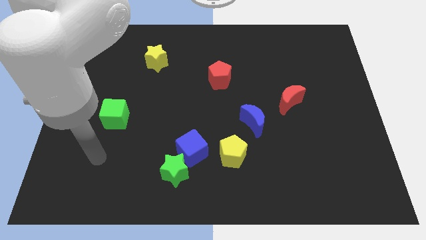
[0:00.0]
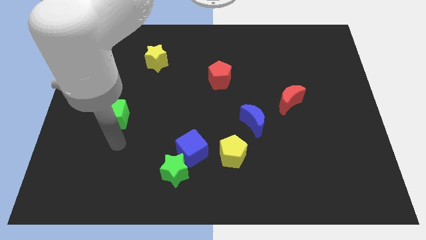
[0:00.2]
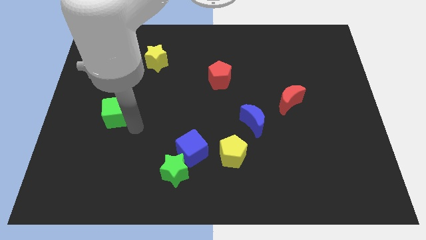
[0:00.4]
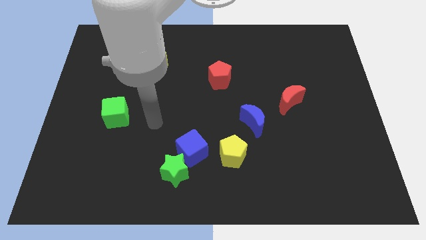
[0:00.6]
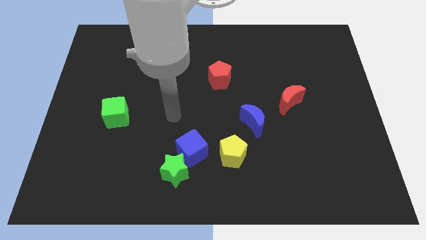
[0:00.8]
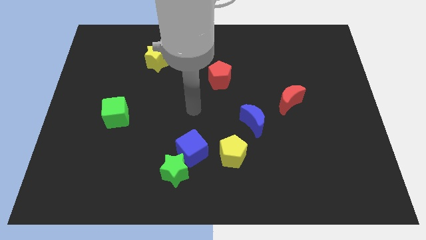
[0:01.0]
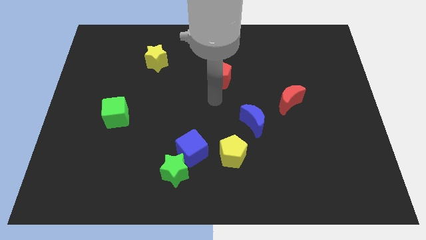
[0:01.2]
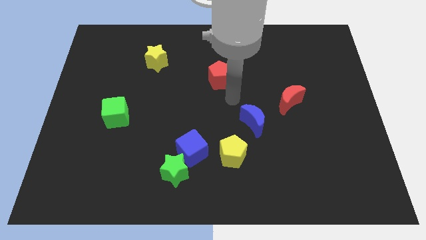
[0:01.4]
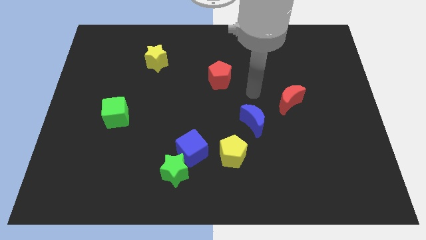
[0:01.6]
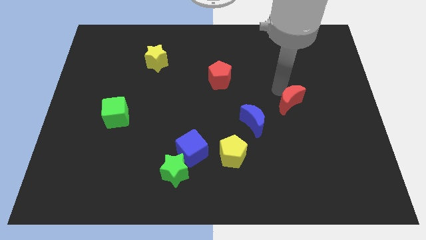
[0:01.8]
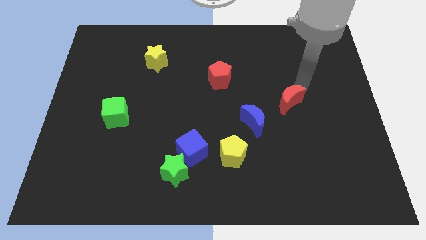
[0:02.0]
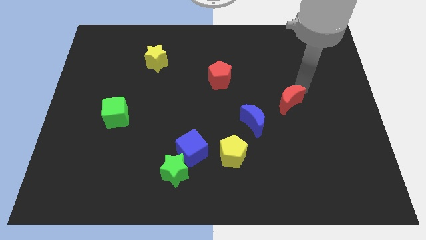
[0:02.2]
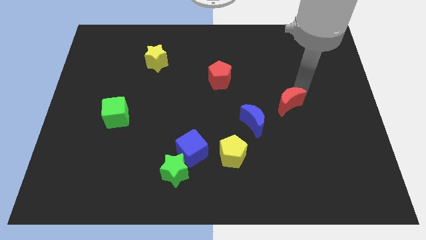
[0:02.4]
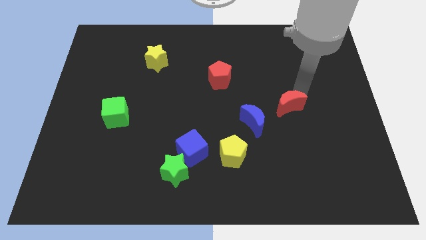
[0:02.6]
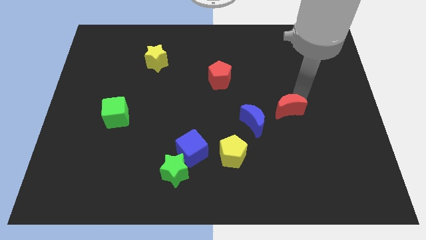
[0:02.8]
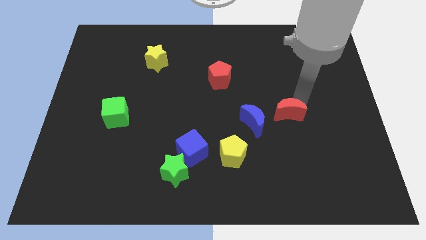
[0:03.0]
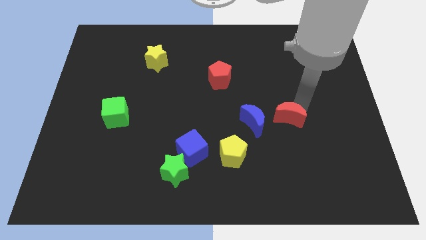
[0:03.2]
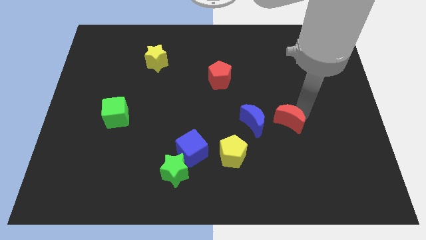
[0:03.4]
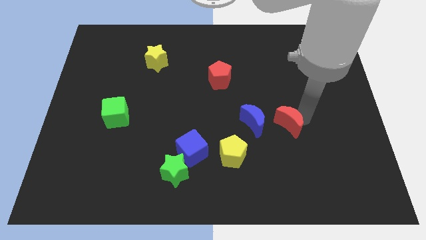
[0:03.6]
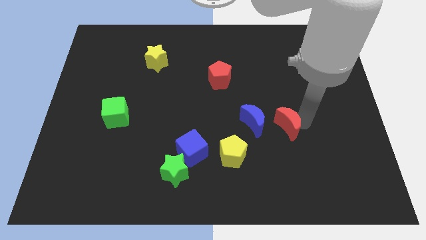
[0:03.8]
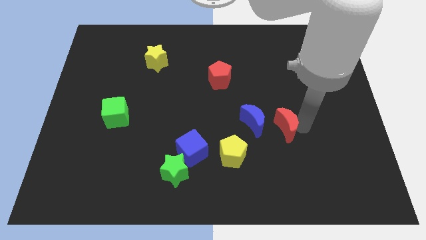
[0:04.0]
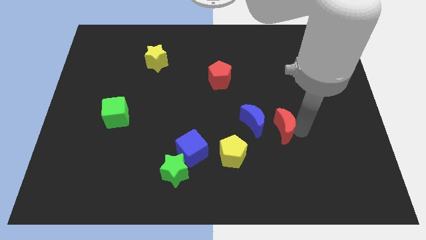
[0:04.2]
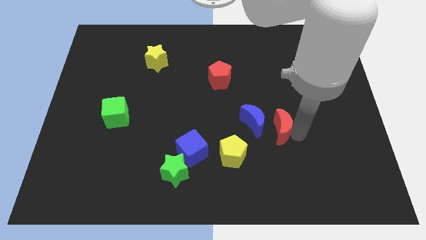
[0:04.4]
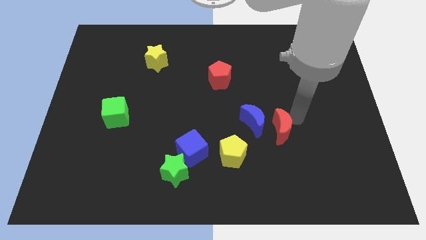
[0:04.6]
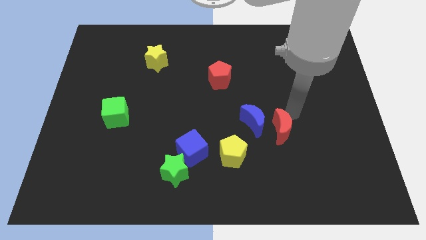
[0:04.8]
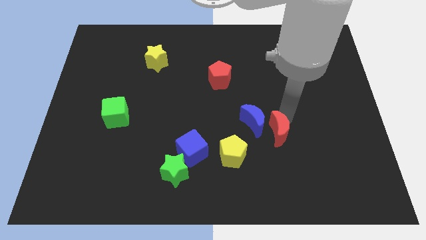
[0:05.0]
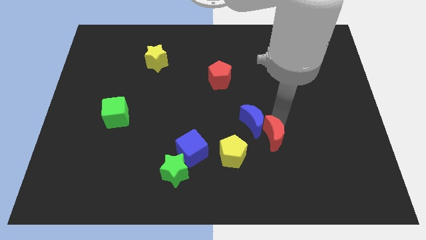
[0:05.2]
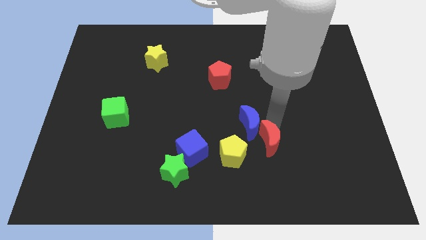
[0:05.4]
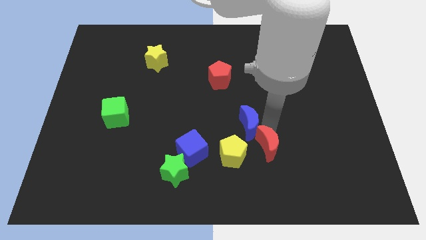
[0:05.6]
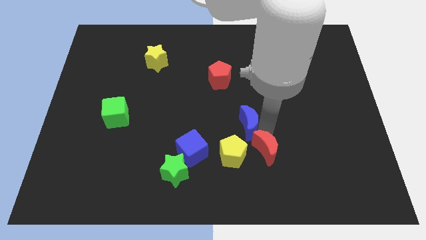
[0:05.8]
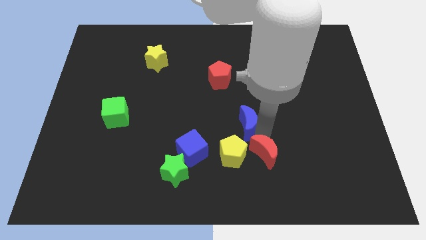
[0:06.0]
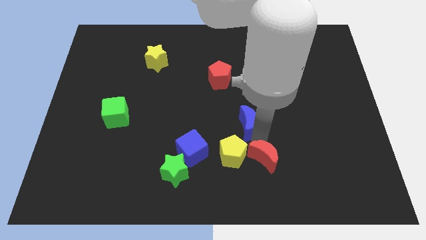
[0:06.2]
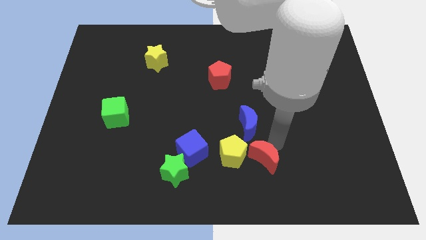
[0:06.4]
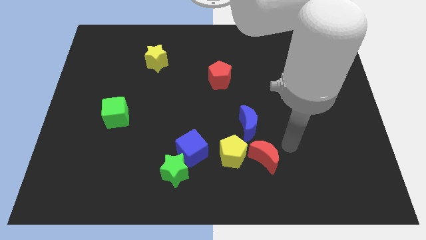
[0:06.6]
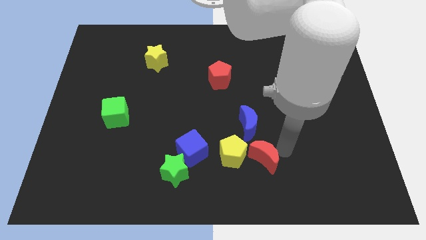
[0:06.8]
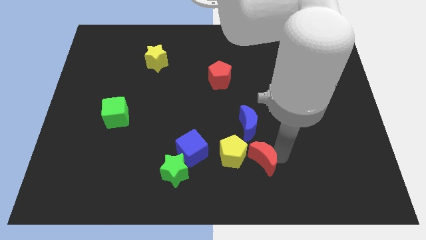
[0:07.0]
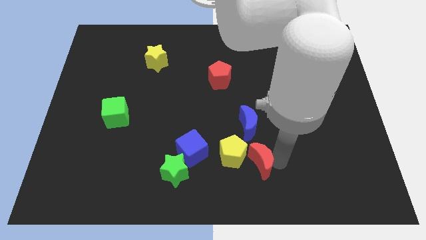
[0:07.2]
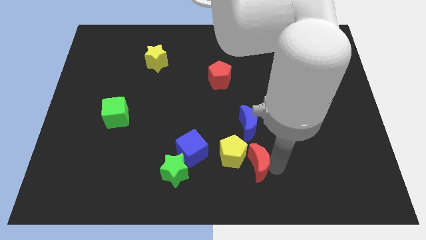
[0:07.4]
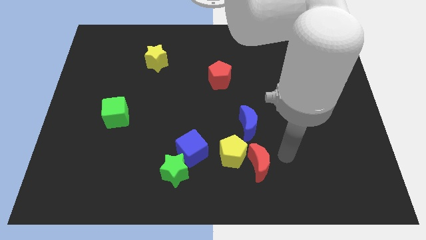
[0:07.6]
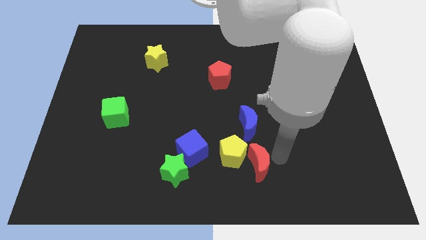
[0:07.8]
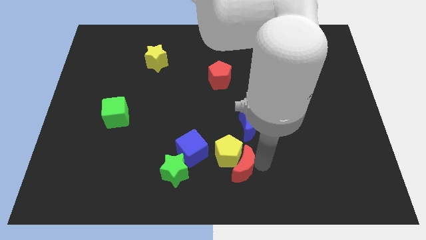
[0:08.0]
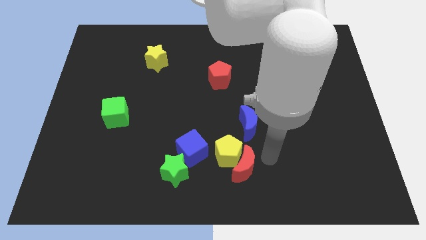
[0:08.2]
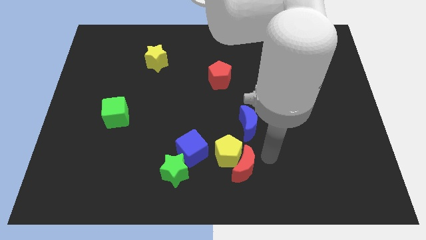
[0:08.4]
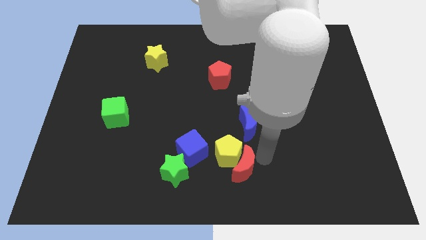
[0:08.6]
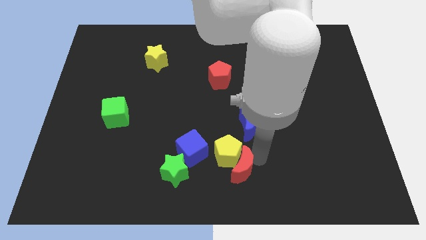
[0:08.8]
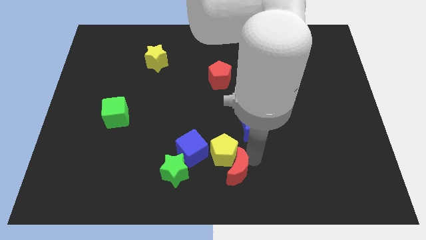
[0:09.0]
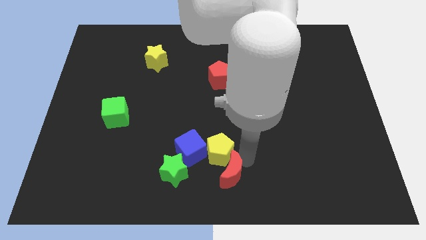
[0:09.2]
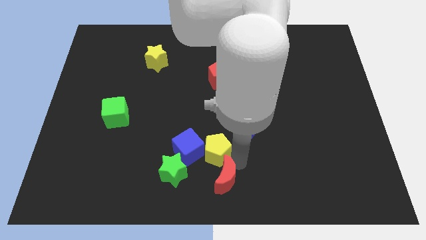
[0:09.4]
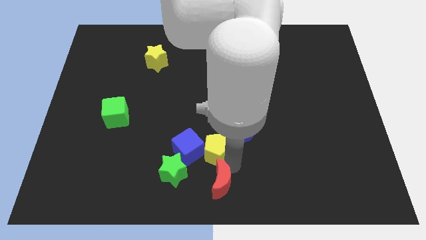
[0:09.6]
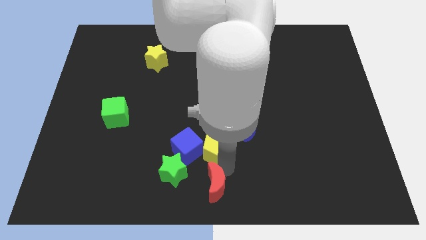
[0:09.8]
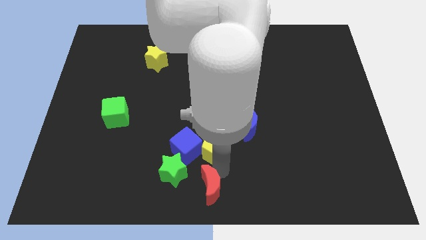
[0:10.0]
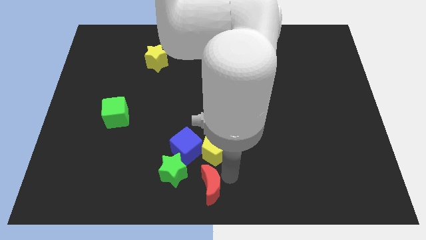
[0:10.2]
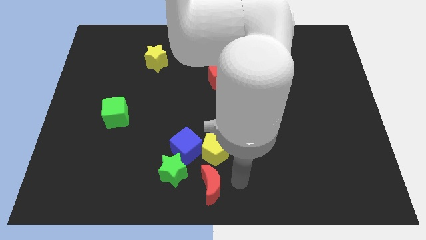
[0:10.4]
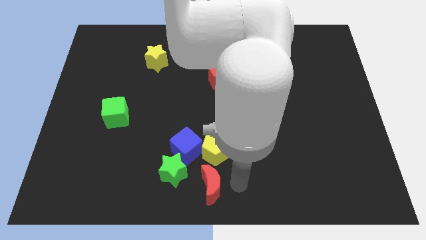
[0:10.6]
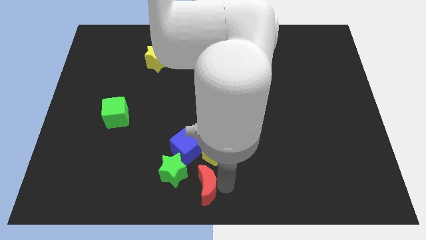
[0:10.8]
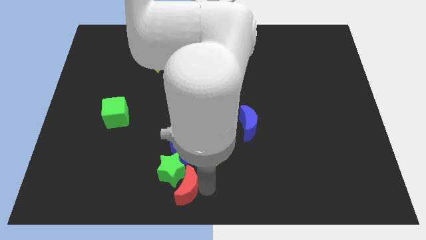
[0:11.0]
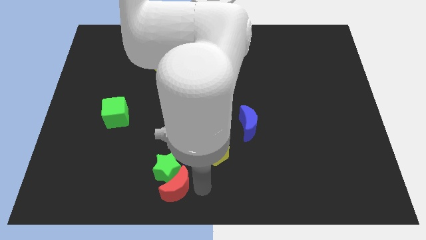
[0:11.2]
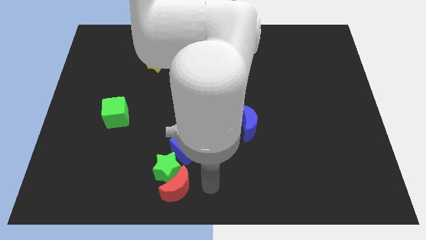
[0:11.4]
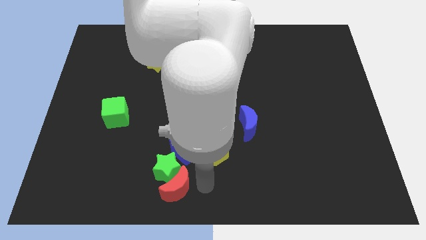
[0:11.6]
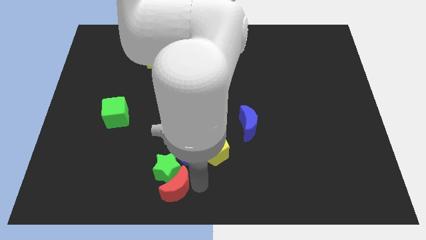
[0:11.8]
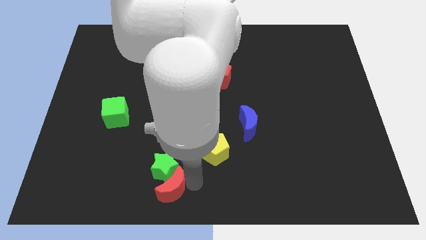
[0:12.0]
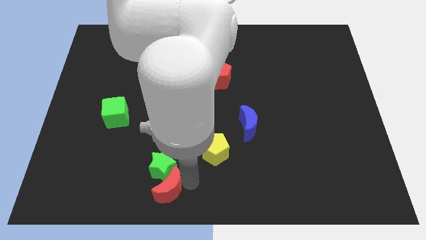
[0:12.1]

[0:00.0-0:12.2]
put the red moon to the bottom left of the blue cube

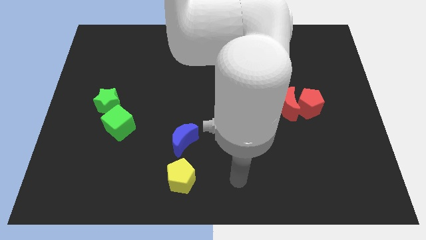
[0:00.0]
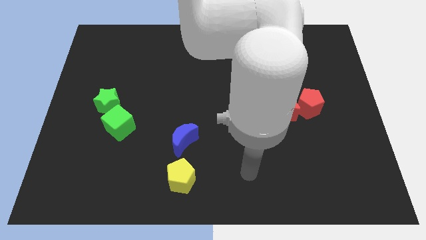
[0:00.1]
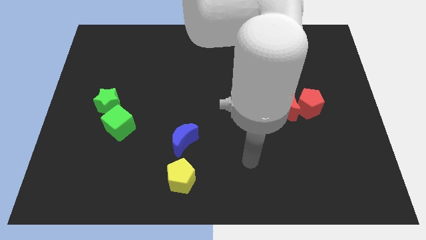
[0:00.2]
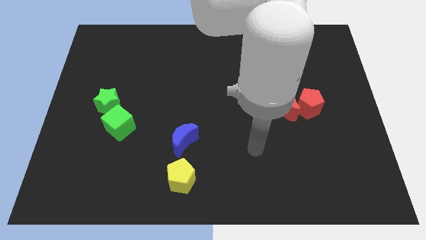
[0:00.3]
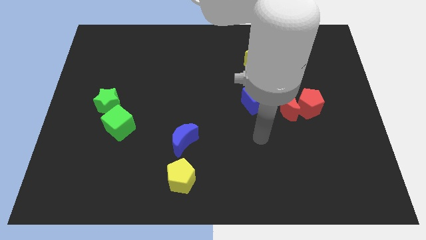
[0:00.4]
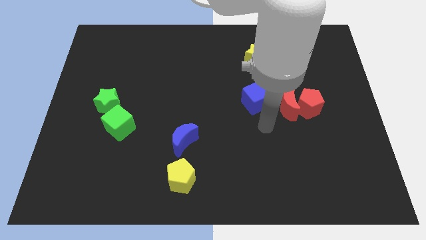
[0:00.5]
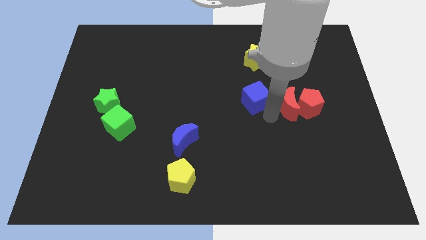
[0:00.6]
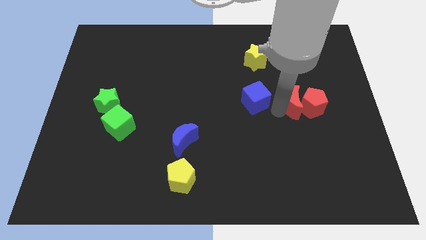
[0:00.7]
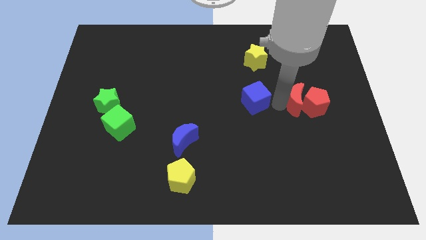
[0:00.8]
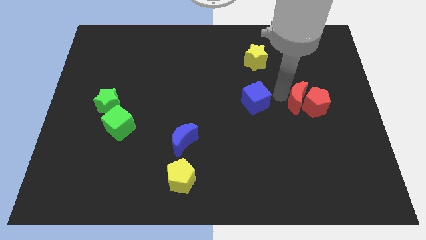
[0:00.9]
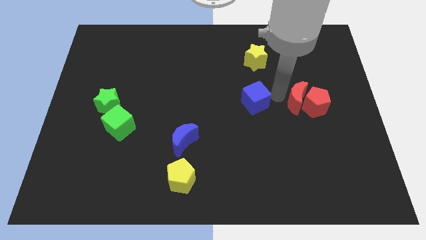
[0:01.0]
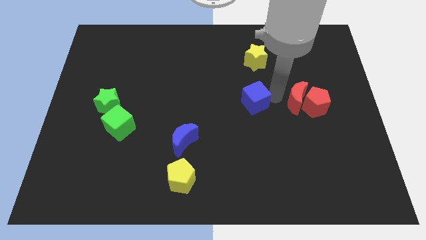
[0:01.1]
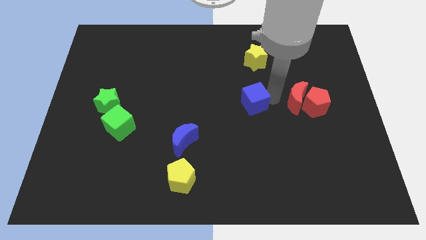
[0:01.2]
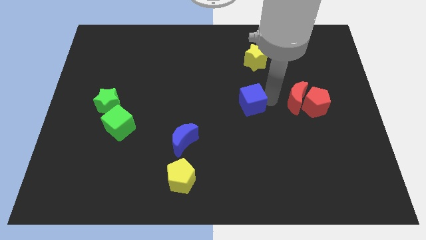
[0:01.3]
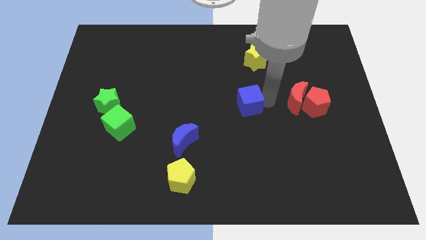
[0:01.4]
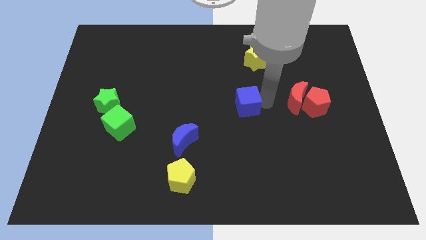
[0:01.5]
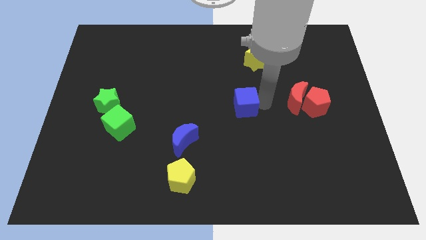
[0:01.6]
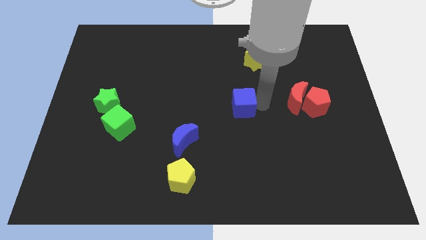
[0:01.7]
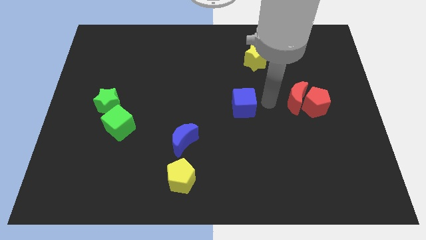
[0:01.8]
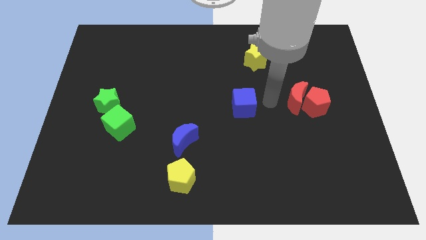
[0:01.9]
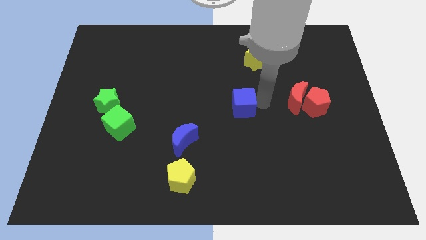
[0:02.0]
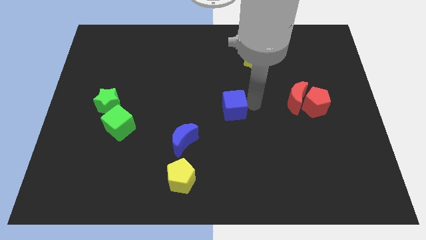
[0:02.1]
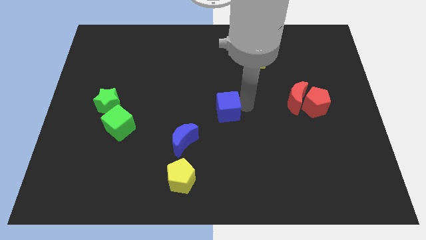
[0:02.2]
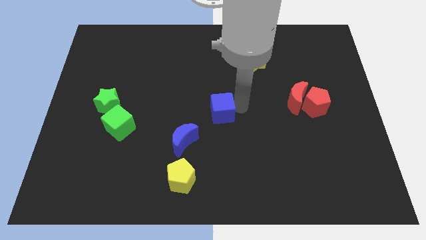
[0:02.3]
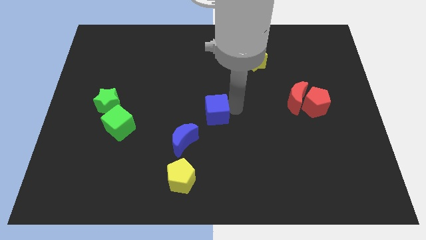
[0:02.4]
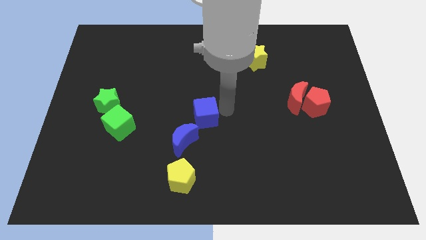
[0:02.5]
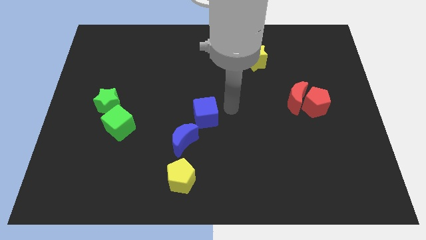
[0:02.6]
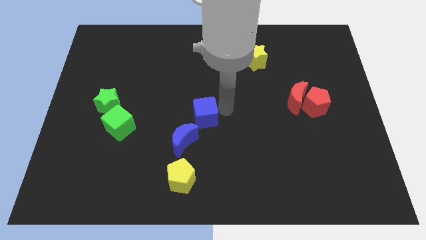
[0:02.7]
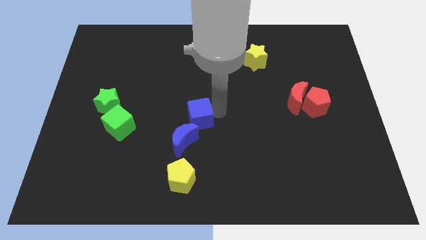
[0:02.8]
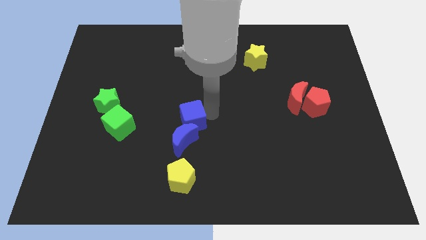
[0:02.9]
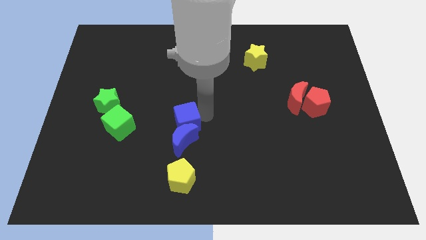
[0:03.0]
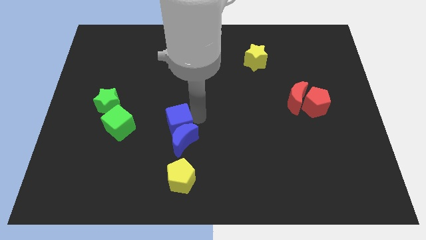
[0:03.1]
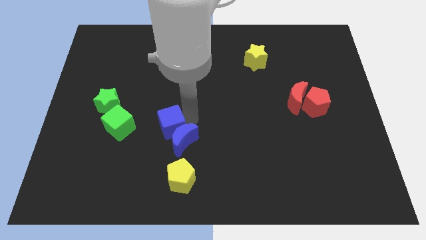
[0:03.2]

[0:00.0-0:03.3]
put the blue cube to the left side of the blue moon
